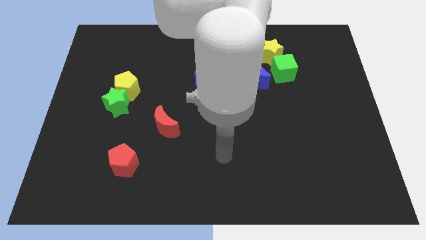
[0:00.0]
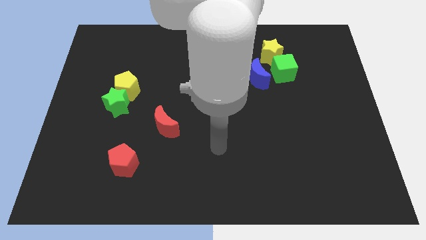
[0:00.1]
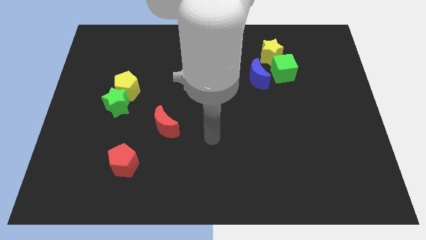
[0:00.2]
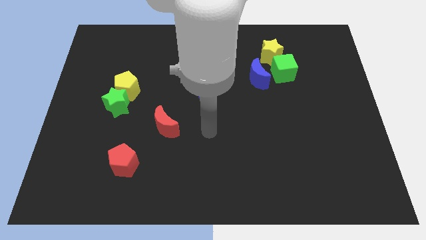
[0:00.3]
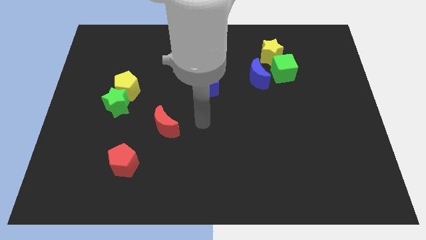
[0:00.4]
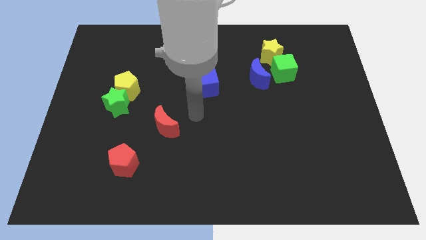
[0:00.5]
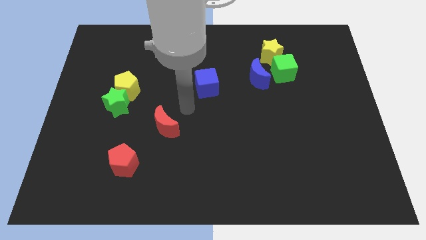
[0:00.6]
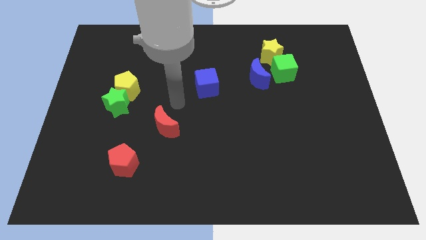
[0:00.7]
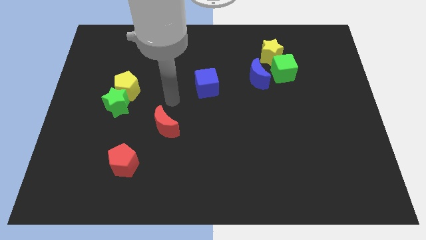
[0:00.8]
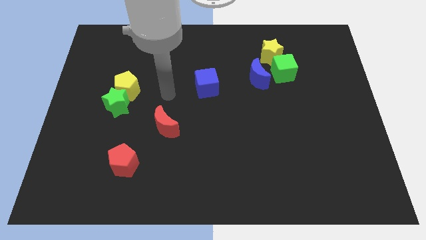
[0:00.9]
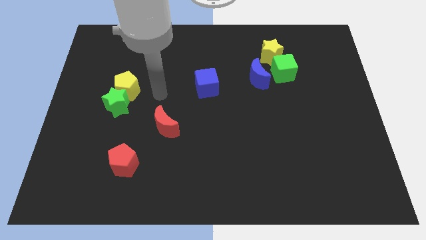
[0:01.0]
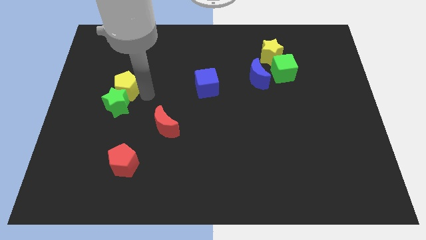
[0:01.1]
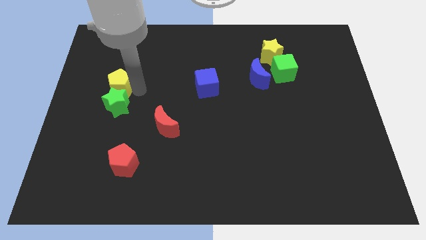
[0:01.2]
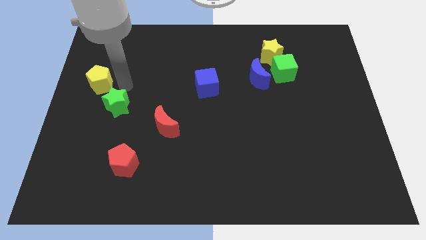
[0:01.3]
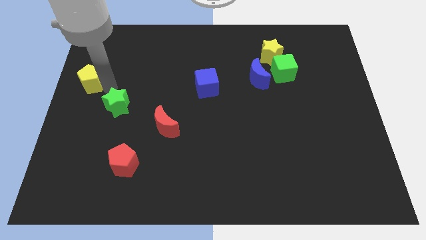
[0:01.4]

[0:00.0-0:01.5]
move the green star away from the yellow pentagon

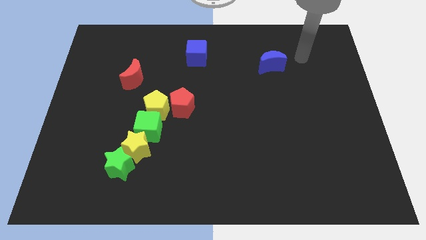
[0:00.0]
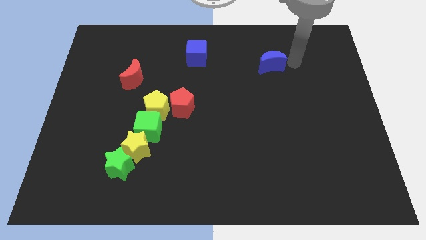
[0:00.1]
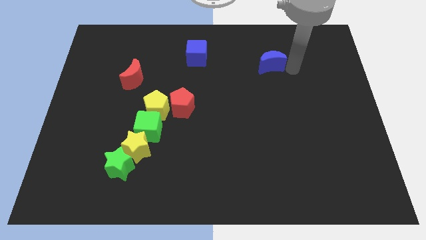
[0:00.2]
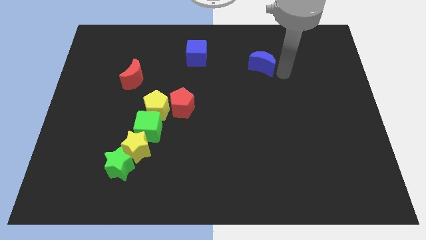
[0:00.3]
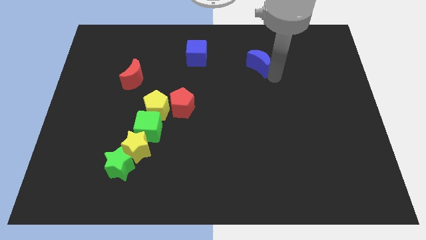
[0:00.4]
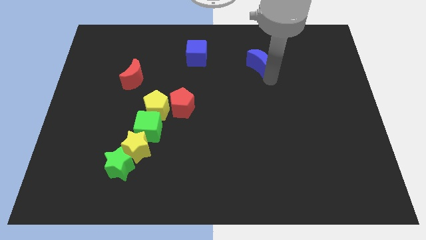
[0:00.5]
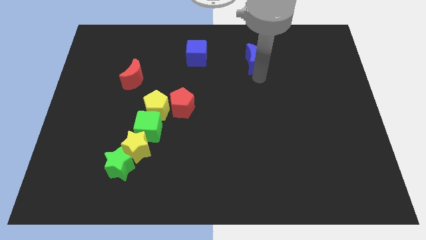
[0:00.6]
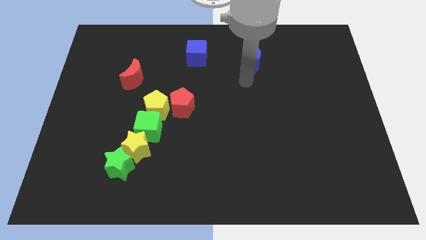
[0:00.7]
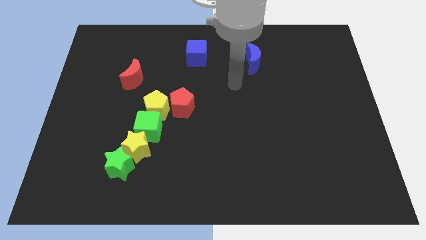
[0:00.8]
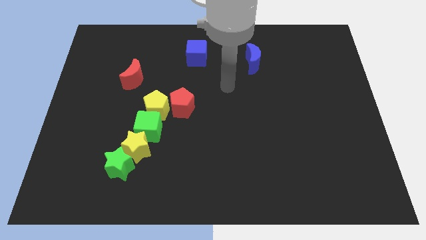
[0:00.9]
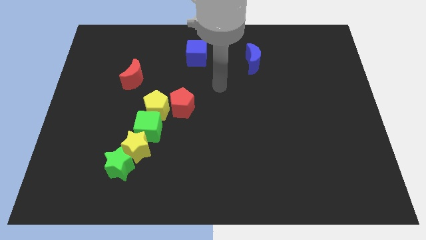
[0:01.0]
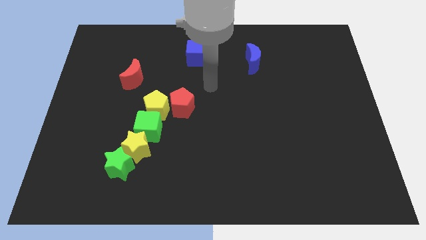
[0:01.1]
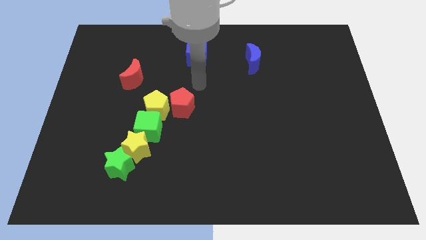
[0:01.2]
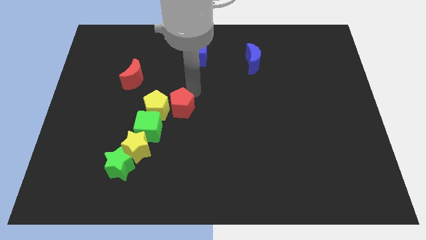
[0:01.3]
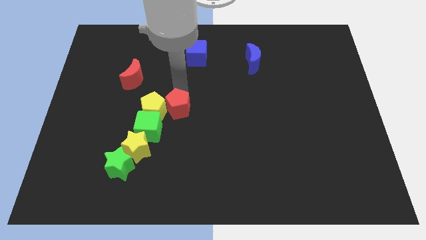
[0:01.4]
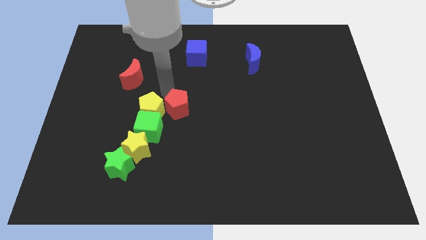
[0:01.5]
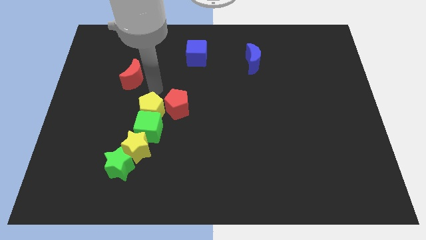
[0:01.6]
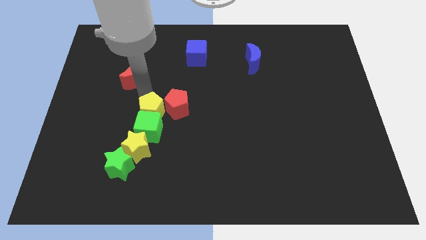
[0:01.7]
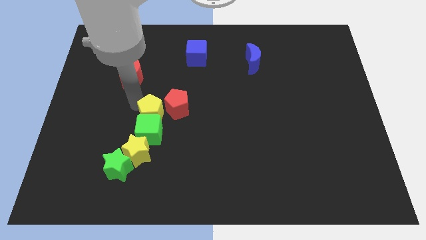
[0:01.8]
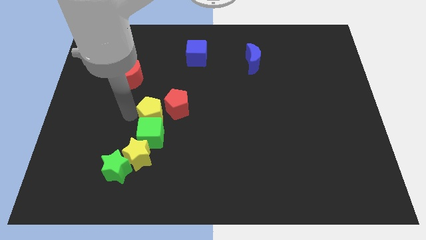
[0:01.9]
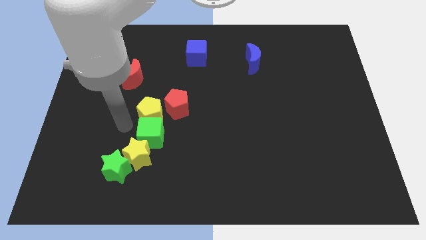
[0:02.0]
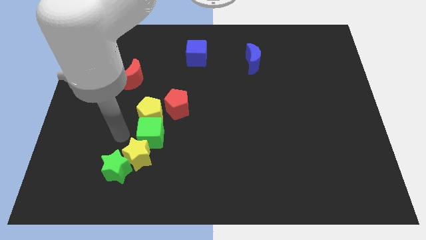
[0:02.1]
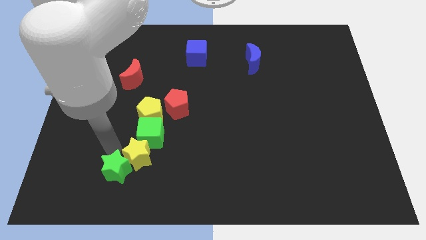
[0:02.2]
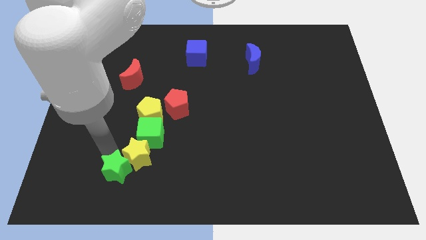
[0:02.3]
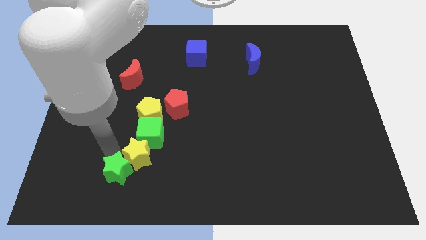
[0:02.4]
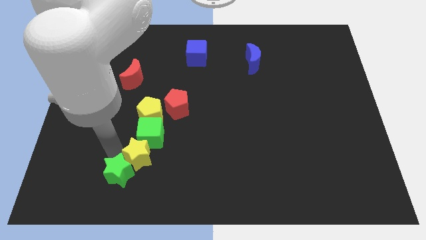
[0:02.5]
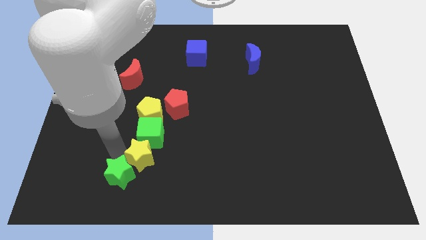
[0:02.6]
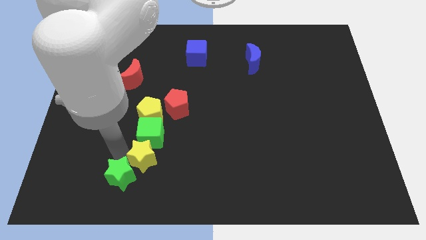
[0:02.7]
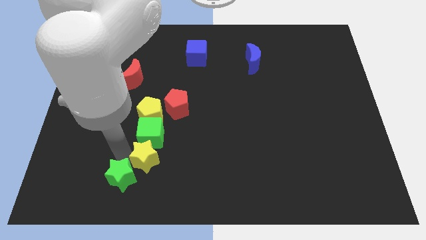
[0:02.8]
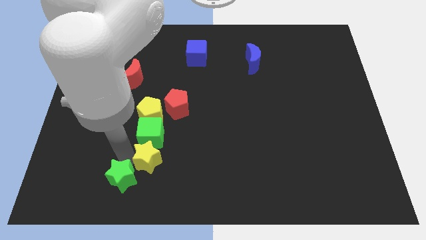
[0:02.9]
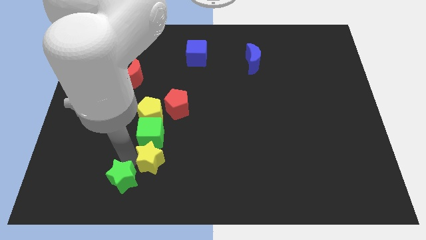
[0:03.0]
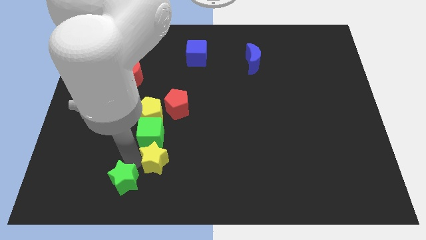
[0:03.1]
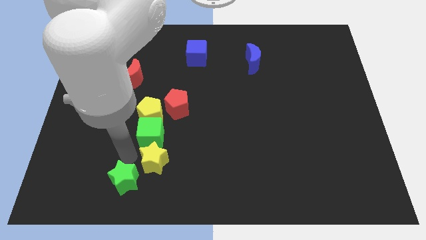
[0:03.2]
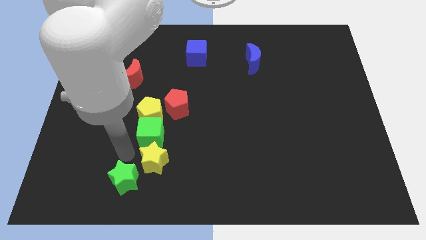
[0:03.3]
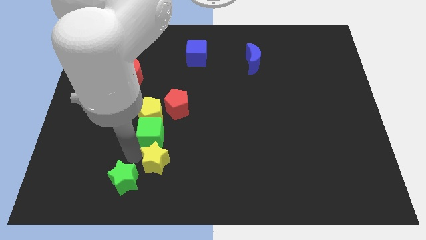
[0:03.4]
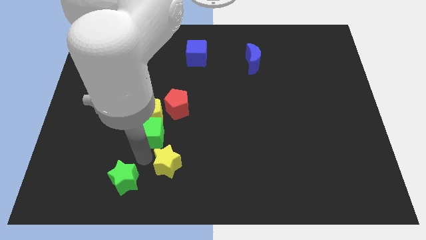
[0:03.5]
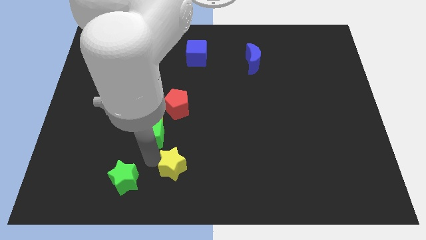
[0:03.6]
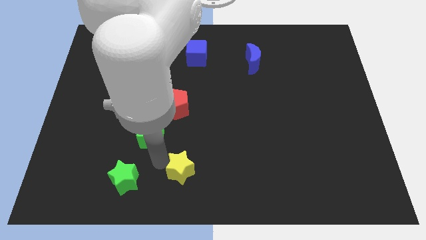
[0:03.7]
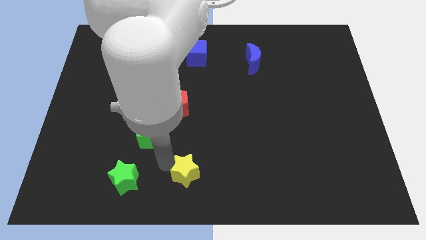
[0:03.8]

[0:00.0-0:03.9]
separate the yellow star from the green cube and green star

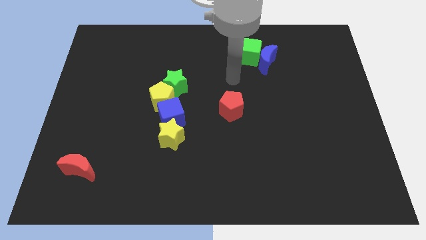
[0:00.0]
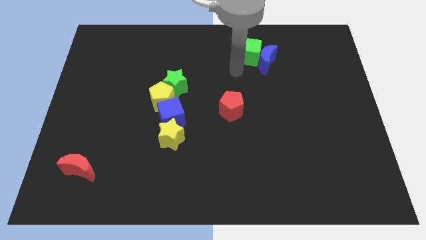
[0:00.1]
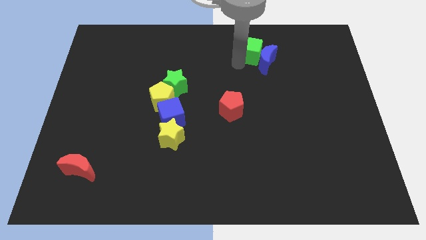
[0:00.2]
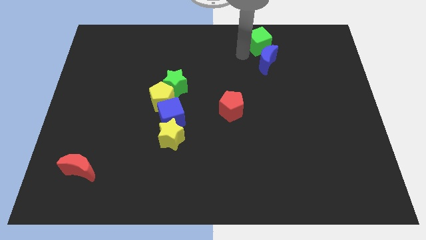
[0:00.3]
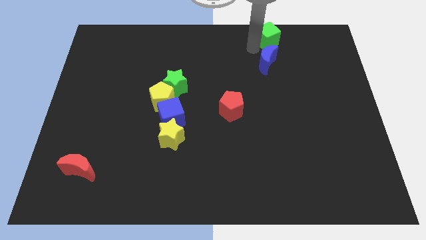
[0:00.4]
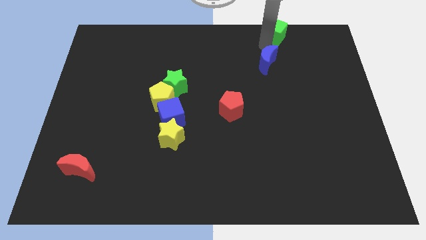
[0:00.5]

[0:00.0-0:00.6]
separate the blue moon from the green cube

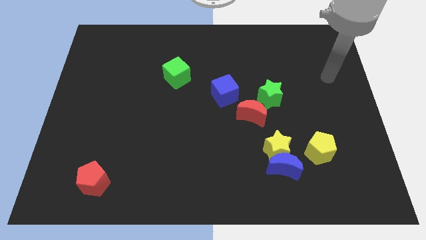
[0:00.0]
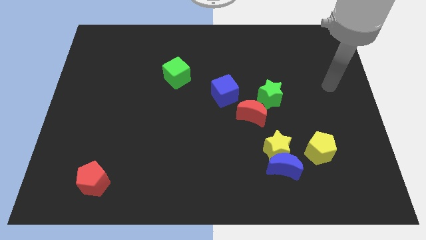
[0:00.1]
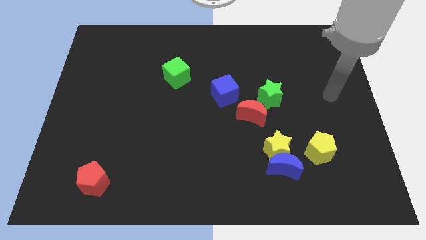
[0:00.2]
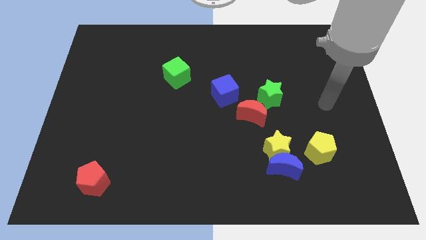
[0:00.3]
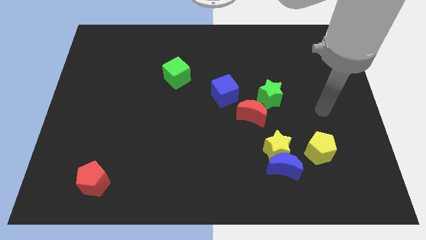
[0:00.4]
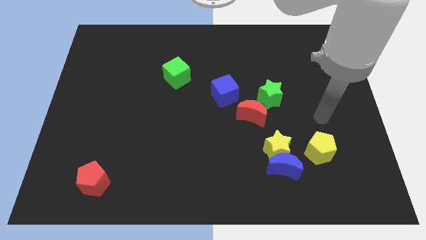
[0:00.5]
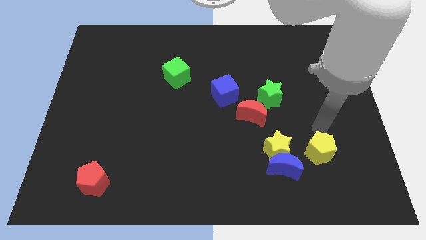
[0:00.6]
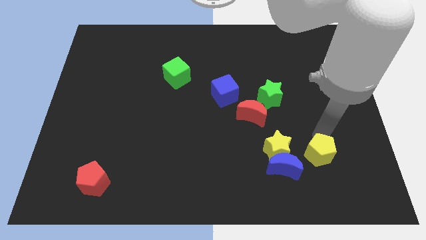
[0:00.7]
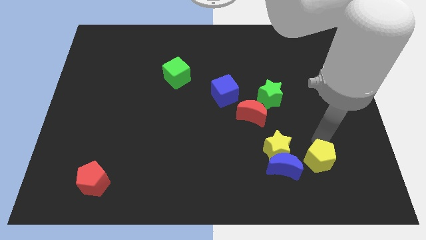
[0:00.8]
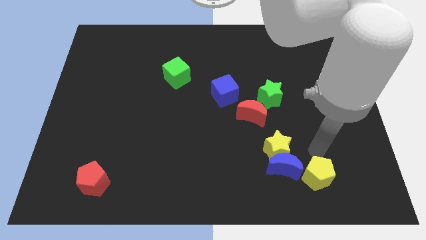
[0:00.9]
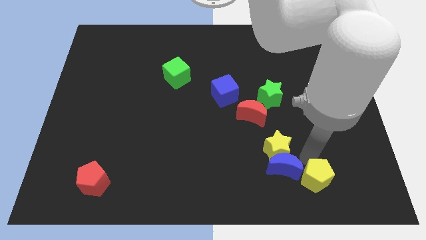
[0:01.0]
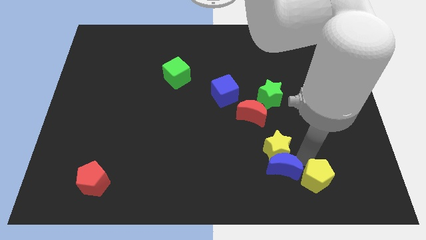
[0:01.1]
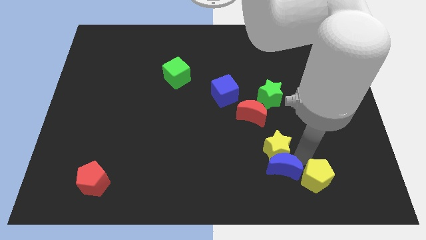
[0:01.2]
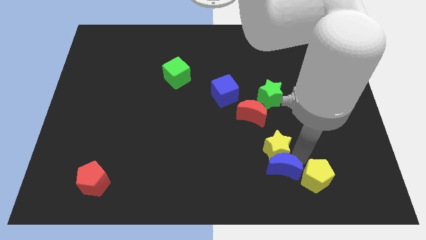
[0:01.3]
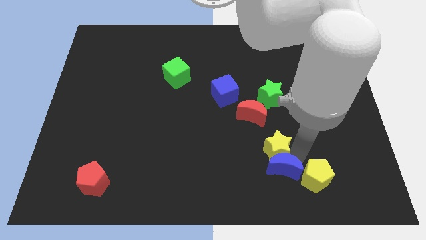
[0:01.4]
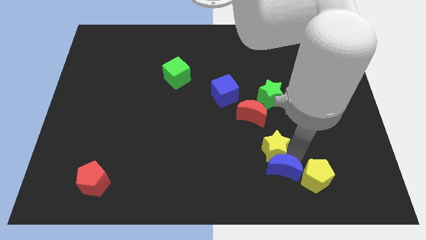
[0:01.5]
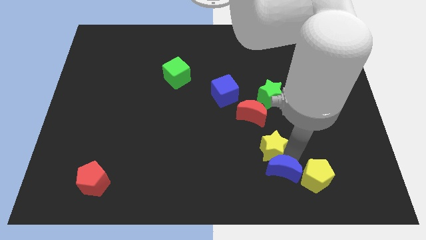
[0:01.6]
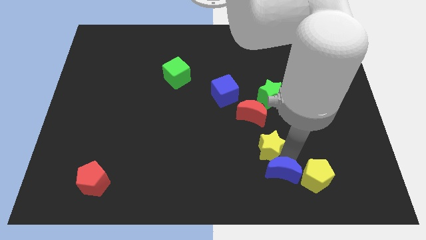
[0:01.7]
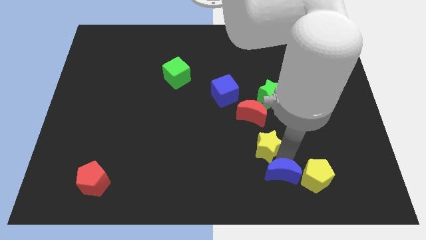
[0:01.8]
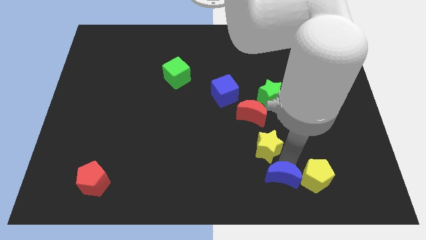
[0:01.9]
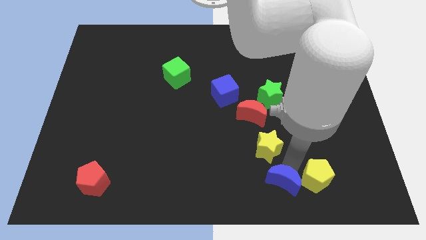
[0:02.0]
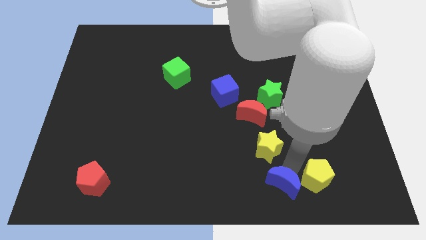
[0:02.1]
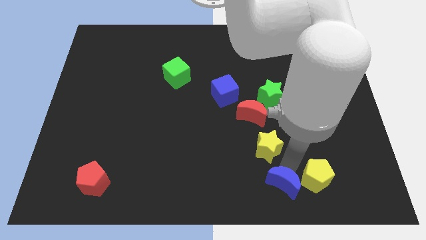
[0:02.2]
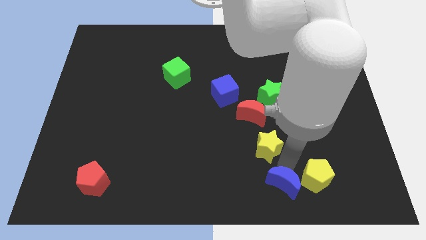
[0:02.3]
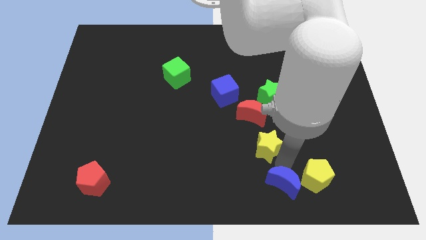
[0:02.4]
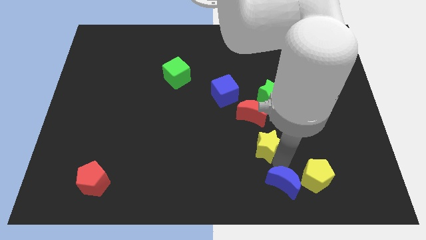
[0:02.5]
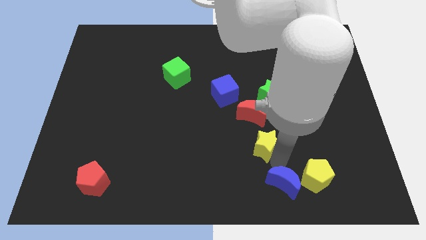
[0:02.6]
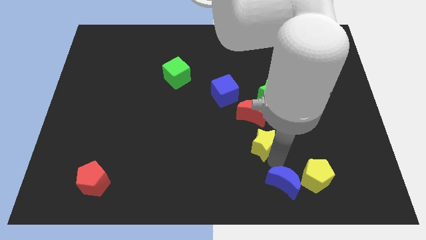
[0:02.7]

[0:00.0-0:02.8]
move the yellow star away from the blue moon and yellow pentagon

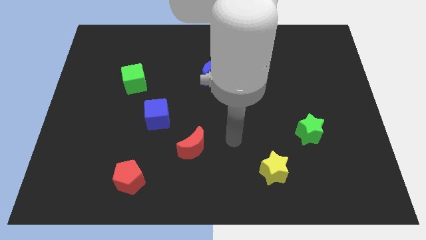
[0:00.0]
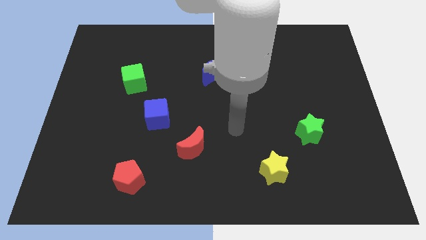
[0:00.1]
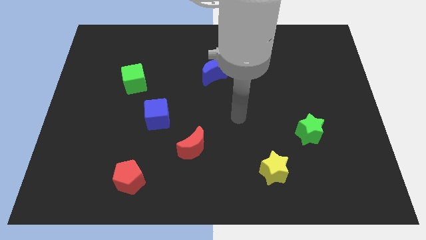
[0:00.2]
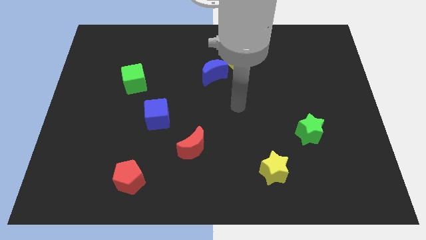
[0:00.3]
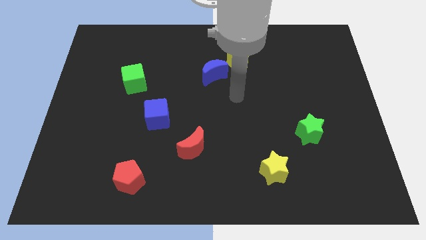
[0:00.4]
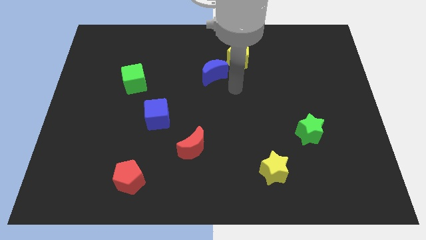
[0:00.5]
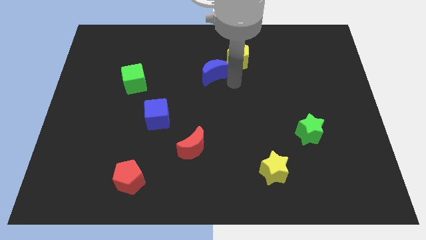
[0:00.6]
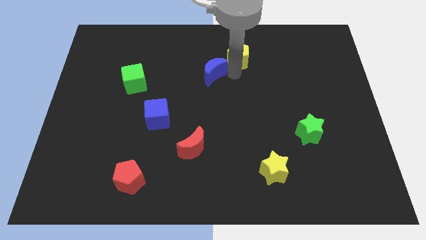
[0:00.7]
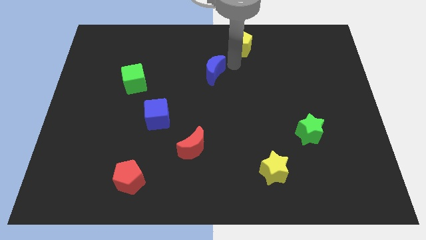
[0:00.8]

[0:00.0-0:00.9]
pull the blue moon apart from the yellow pentagon
